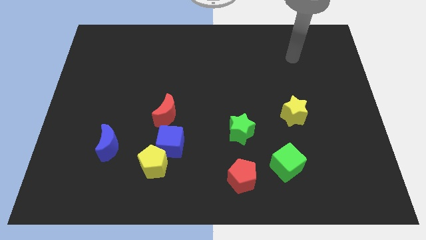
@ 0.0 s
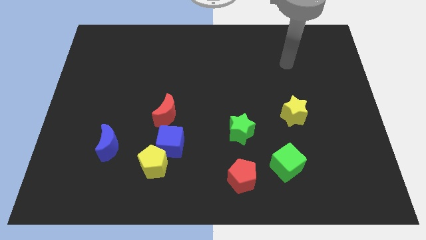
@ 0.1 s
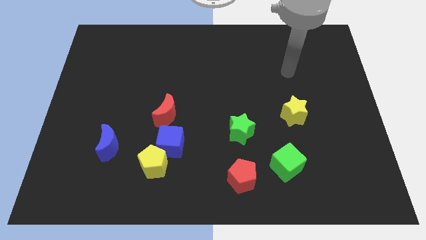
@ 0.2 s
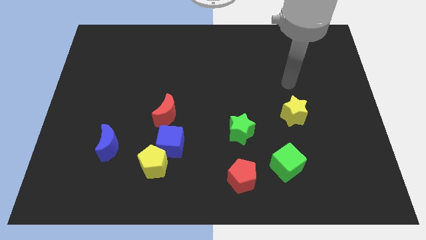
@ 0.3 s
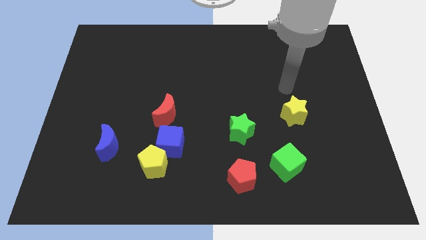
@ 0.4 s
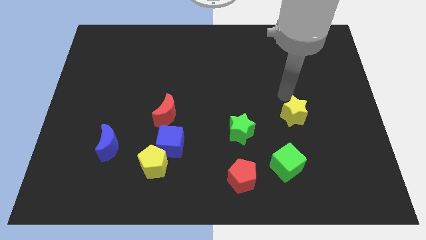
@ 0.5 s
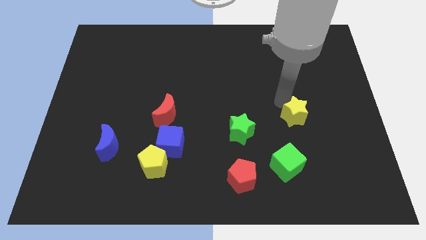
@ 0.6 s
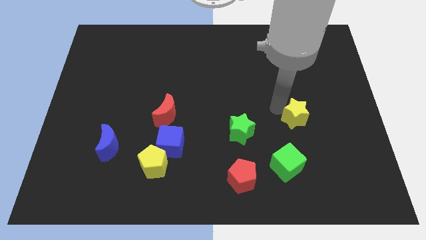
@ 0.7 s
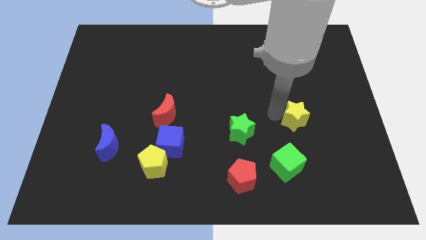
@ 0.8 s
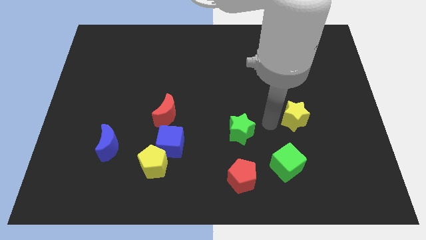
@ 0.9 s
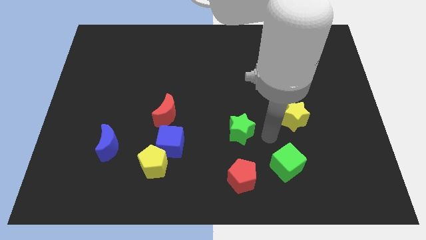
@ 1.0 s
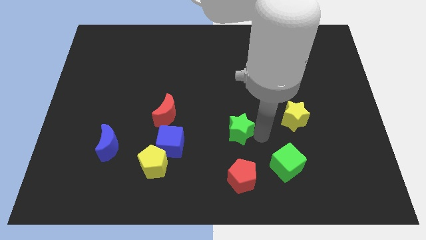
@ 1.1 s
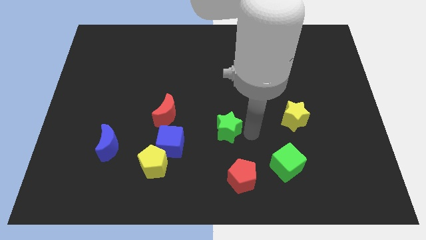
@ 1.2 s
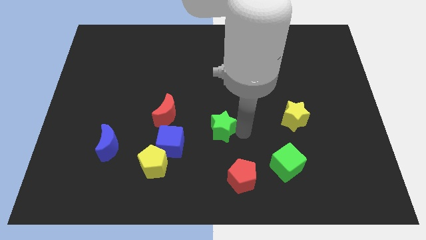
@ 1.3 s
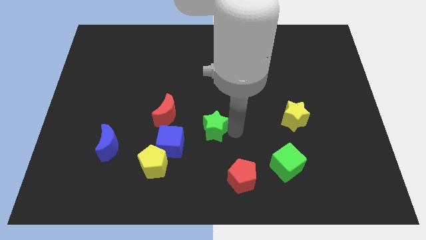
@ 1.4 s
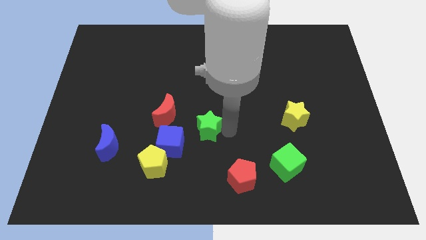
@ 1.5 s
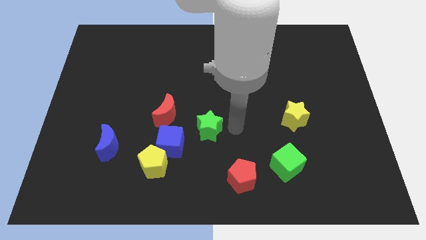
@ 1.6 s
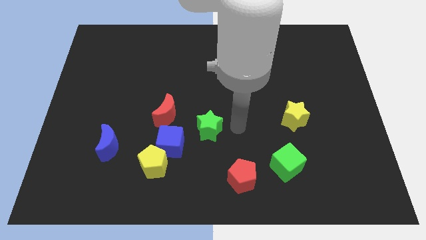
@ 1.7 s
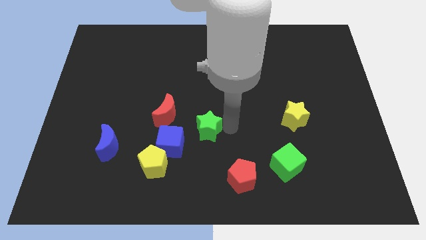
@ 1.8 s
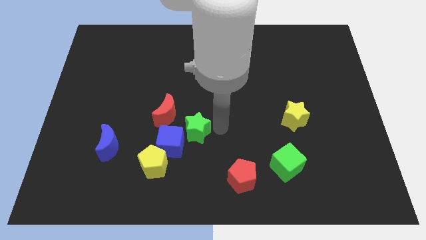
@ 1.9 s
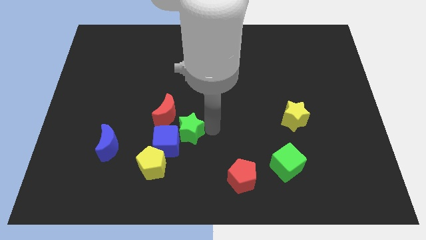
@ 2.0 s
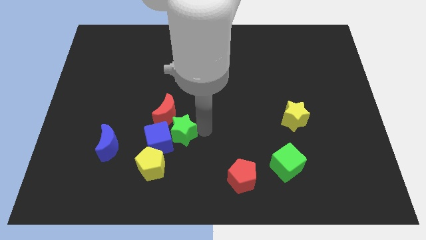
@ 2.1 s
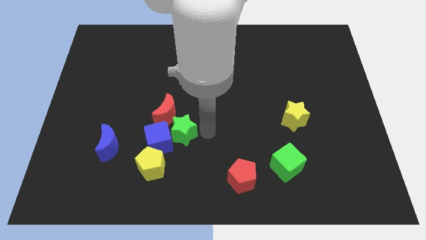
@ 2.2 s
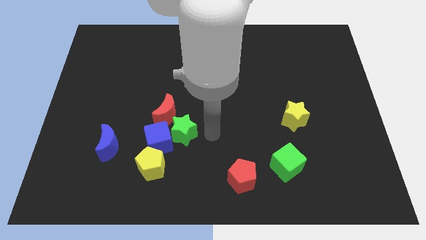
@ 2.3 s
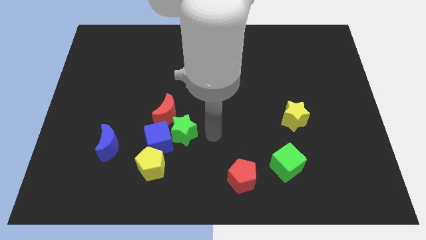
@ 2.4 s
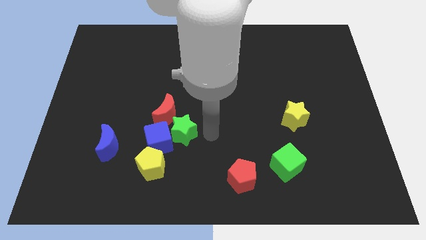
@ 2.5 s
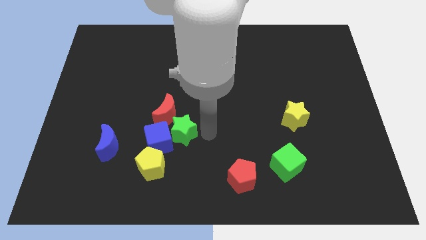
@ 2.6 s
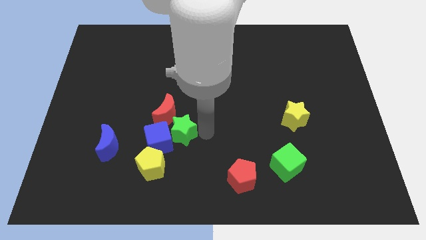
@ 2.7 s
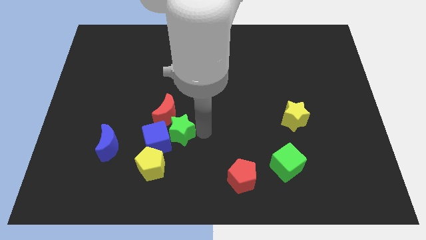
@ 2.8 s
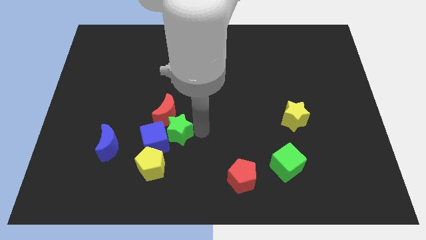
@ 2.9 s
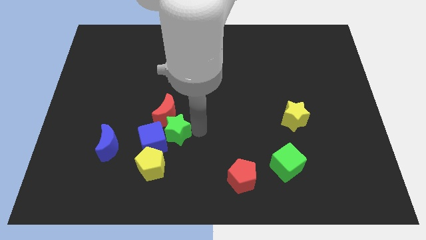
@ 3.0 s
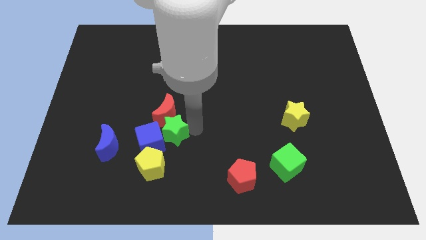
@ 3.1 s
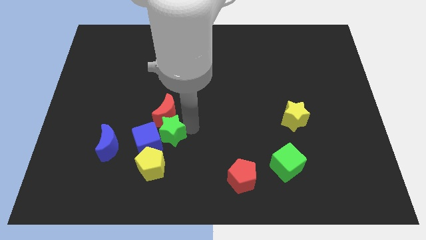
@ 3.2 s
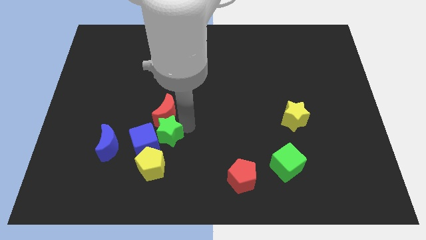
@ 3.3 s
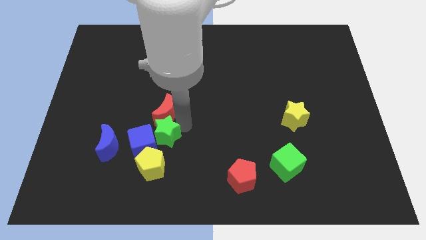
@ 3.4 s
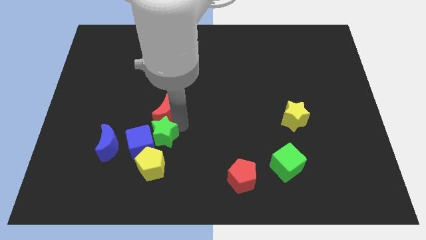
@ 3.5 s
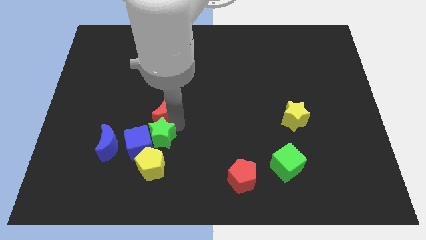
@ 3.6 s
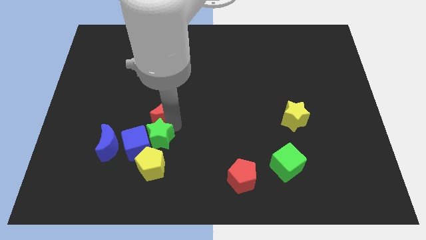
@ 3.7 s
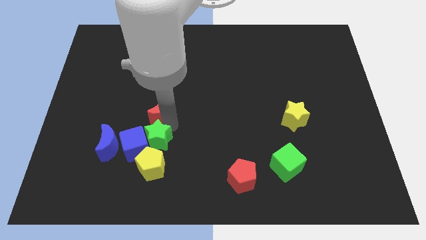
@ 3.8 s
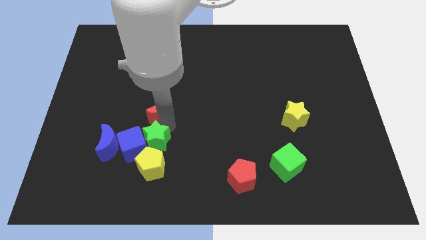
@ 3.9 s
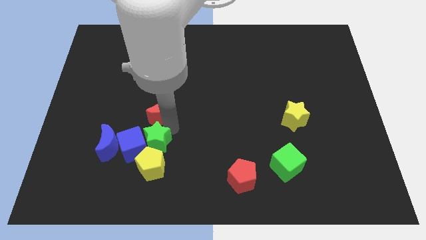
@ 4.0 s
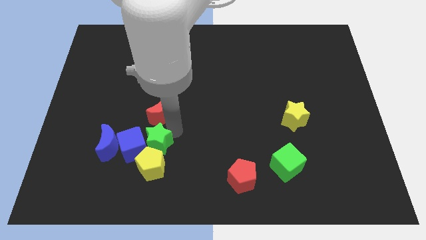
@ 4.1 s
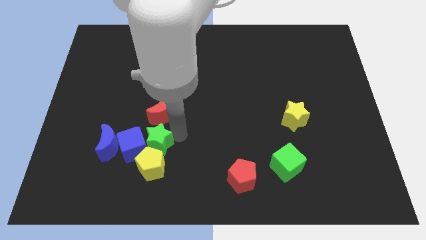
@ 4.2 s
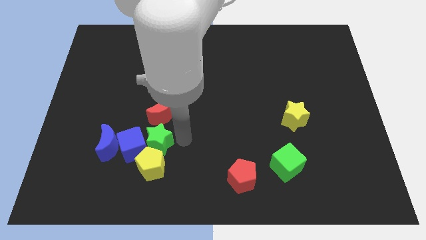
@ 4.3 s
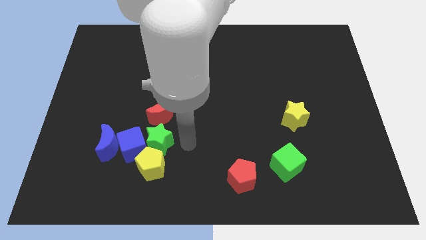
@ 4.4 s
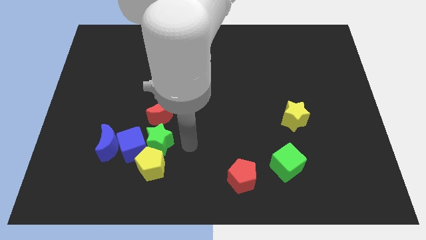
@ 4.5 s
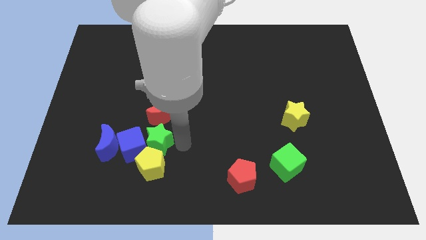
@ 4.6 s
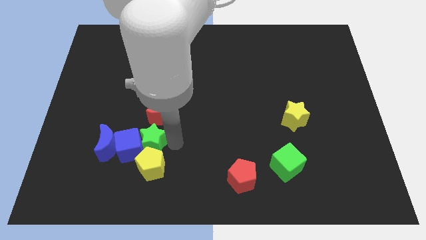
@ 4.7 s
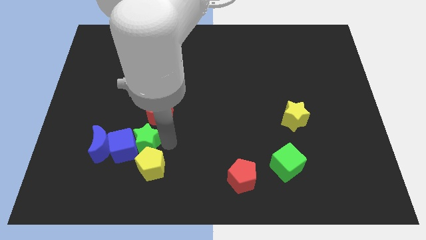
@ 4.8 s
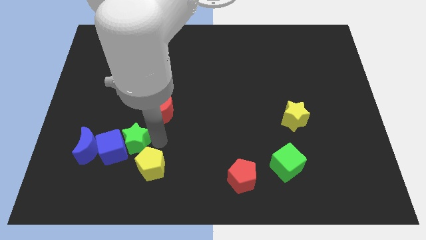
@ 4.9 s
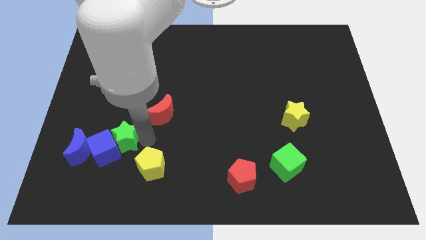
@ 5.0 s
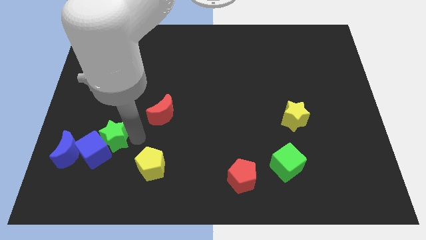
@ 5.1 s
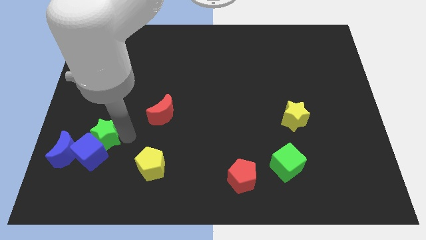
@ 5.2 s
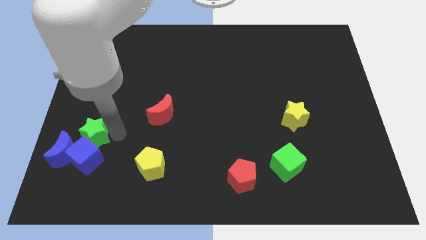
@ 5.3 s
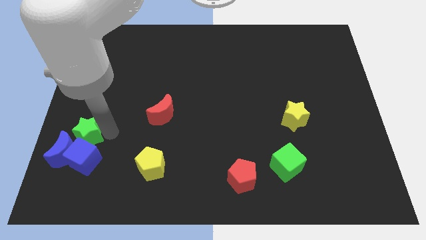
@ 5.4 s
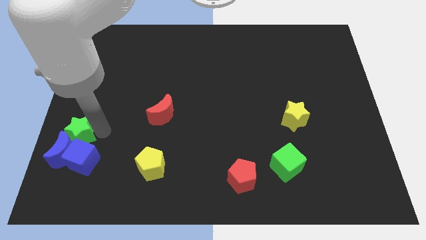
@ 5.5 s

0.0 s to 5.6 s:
move the green star close to the blue moon

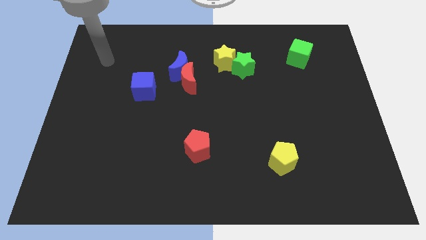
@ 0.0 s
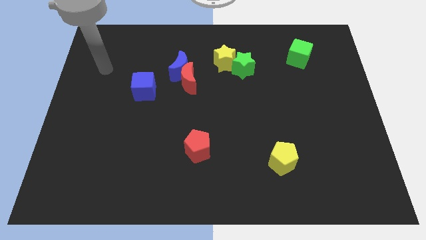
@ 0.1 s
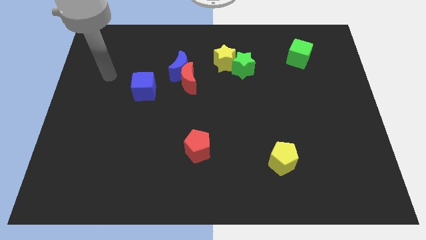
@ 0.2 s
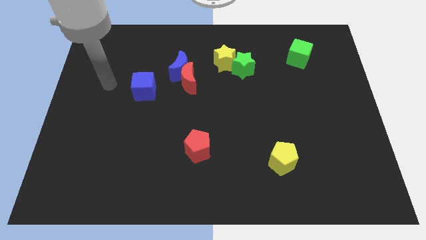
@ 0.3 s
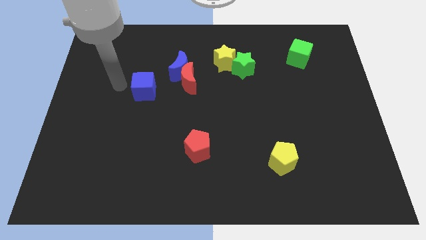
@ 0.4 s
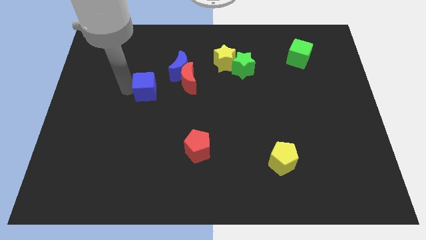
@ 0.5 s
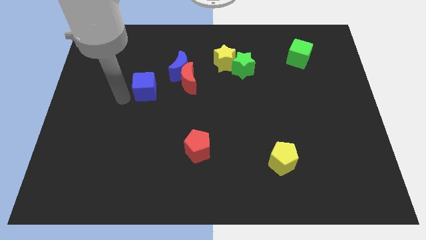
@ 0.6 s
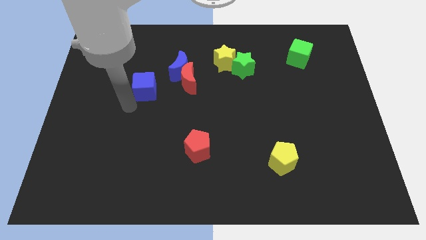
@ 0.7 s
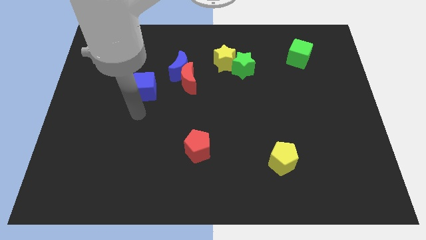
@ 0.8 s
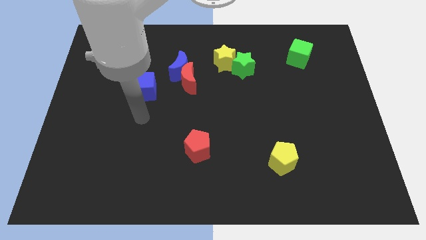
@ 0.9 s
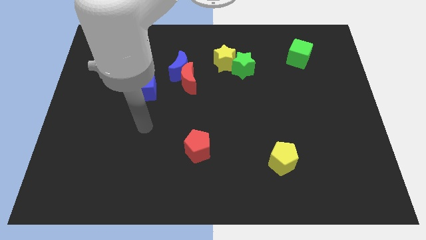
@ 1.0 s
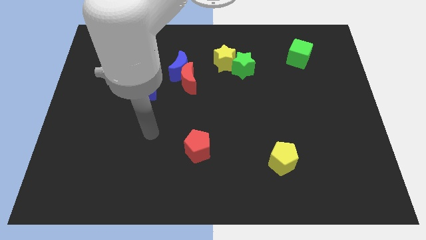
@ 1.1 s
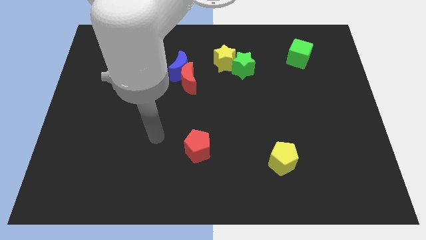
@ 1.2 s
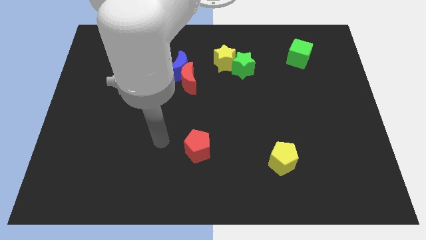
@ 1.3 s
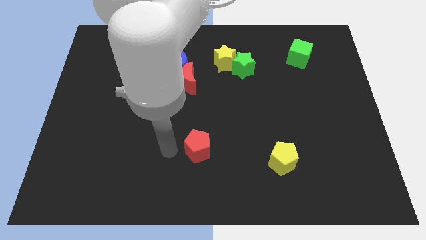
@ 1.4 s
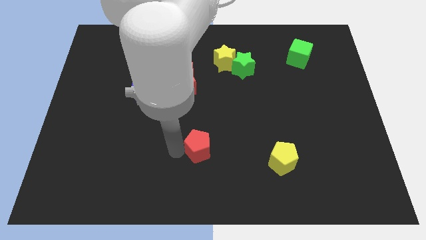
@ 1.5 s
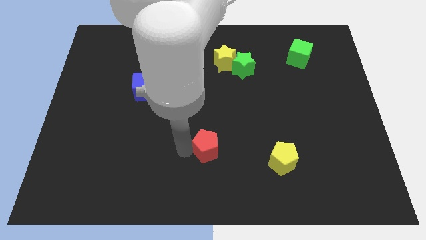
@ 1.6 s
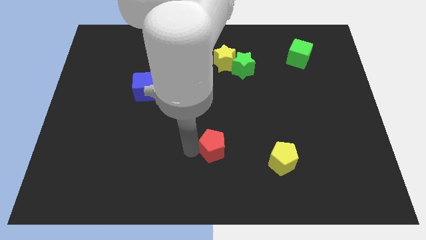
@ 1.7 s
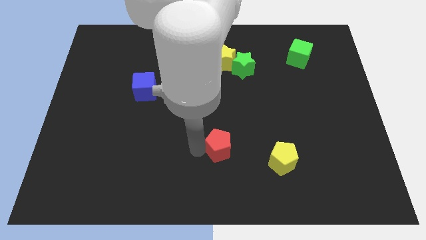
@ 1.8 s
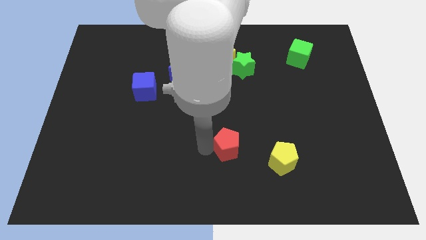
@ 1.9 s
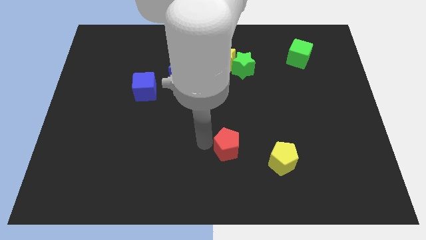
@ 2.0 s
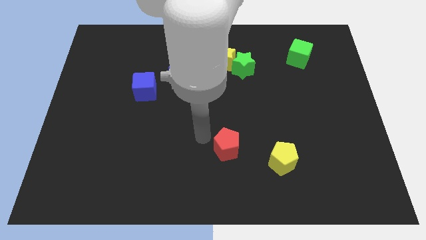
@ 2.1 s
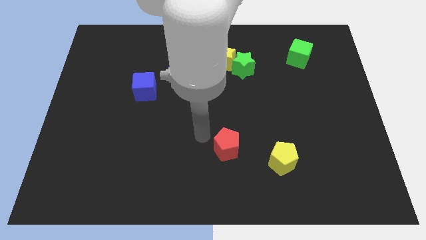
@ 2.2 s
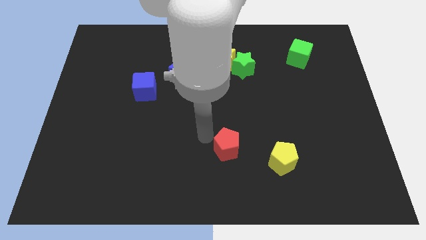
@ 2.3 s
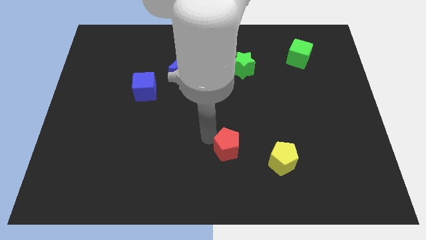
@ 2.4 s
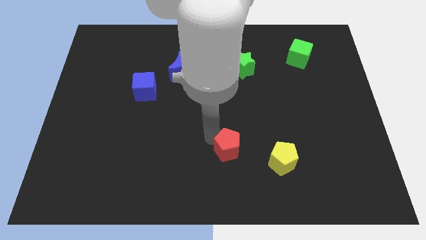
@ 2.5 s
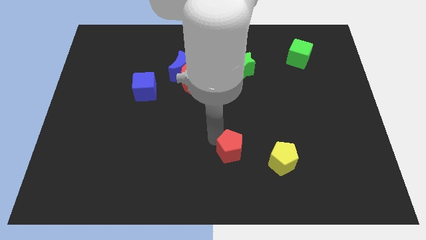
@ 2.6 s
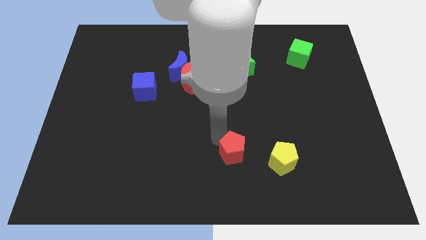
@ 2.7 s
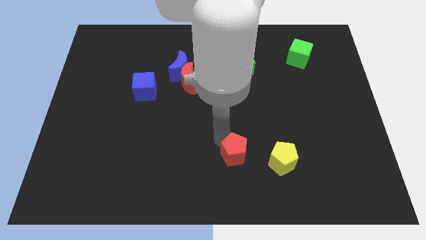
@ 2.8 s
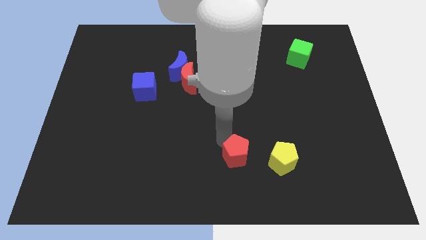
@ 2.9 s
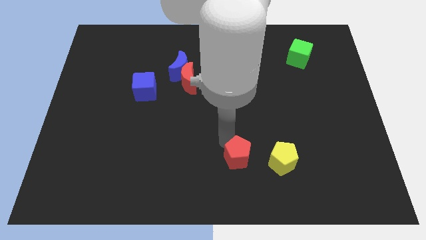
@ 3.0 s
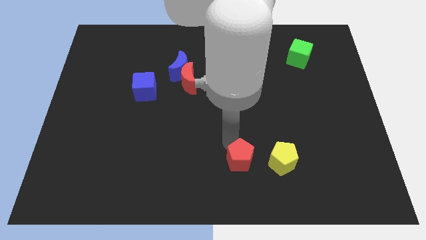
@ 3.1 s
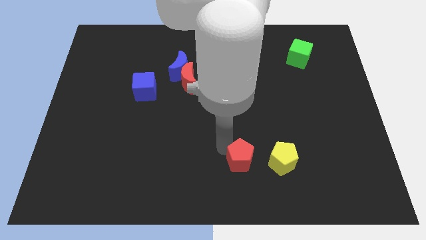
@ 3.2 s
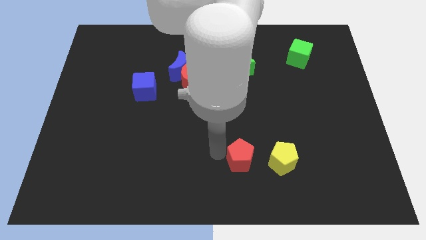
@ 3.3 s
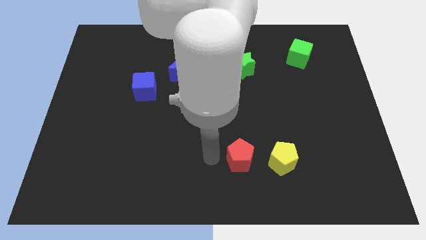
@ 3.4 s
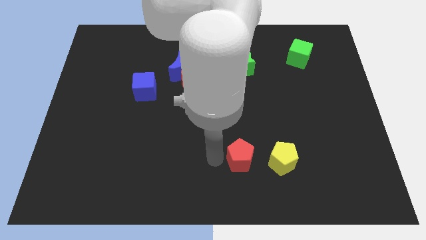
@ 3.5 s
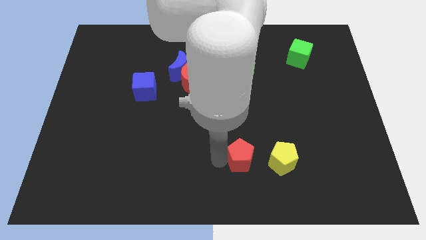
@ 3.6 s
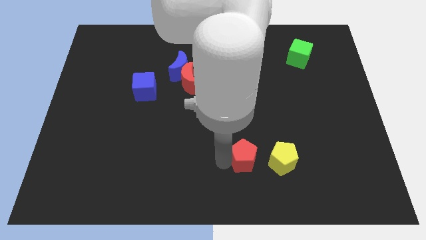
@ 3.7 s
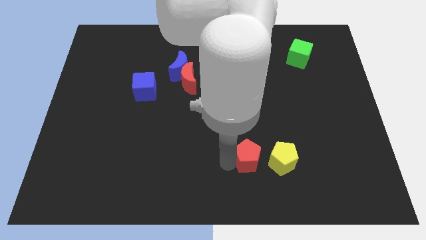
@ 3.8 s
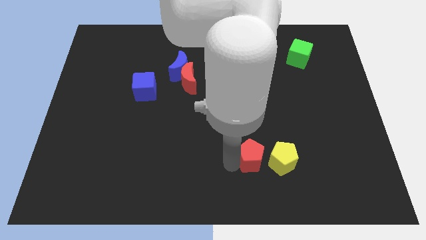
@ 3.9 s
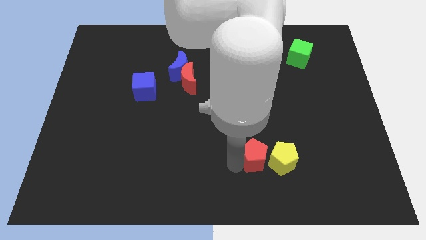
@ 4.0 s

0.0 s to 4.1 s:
push the red pentagon next to the yellow pentagon
